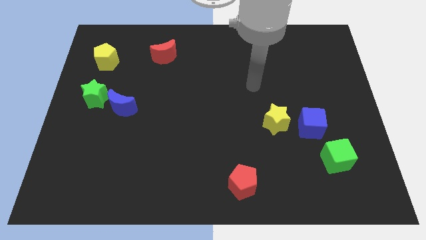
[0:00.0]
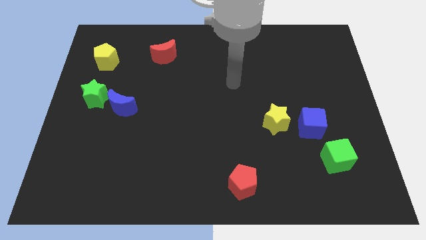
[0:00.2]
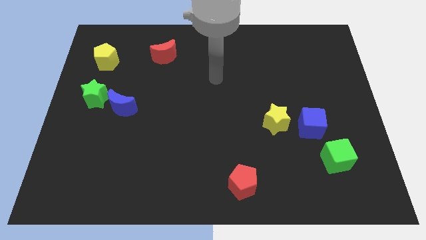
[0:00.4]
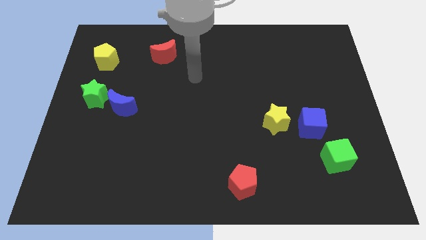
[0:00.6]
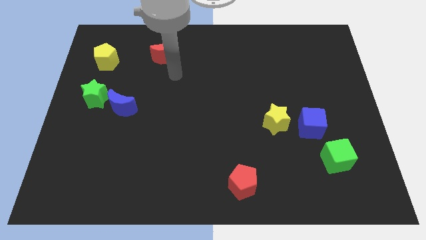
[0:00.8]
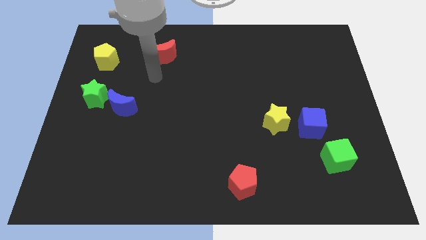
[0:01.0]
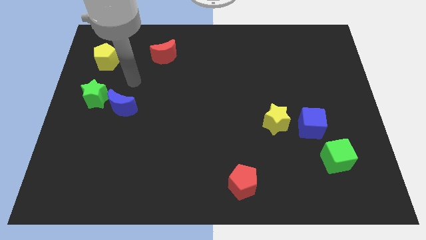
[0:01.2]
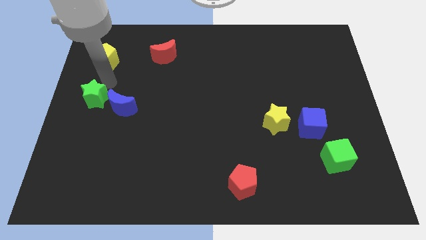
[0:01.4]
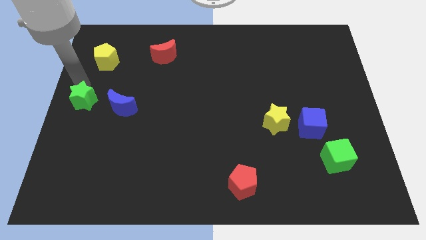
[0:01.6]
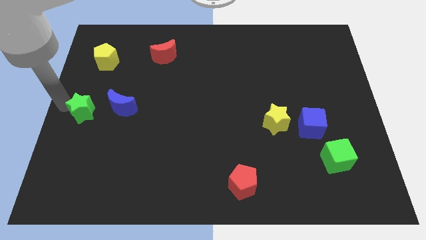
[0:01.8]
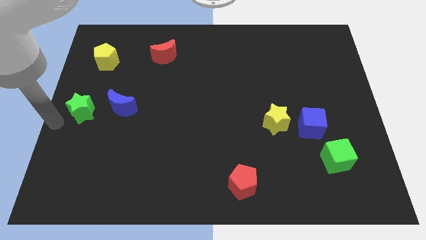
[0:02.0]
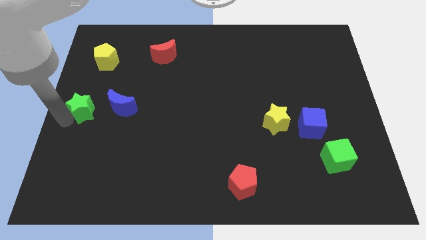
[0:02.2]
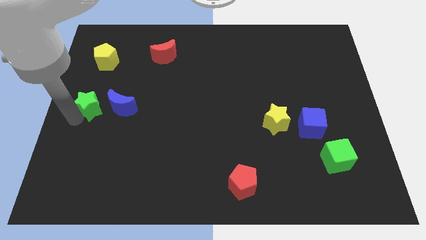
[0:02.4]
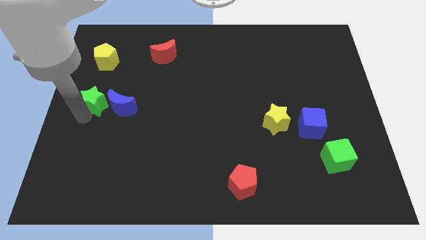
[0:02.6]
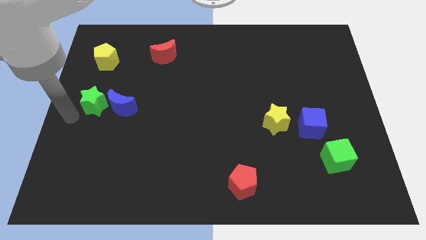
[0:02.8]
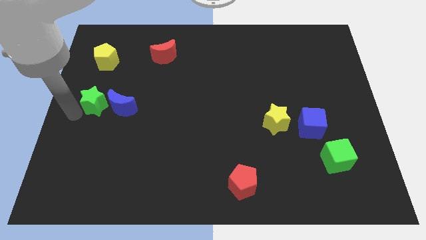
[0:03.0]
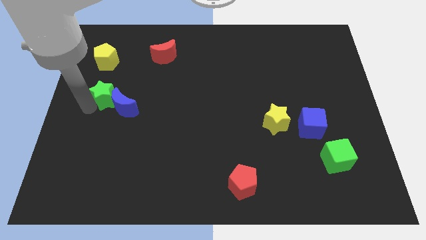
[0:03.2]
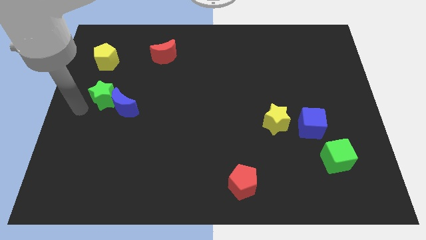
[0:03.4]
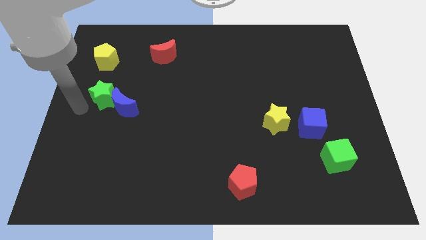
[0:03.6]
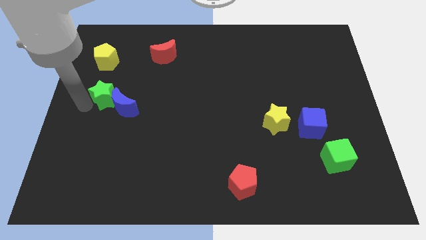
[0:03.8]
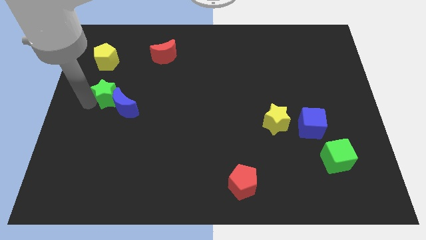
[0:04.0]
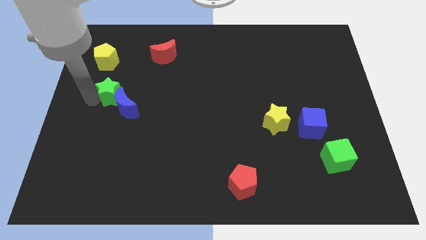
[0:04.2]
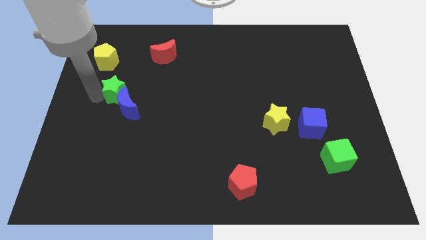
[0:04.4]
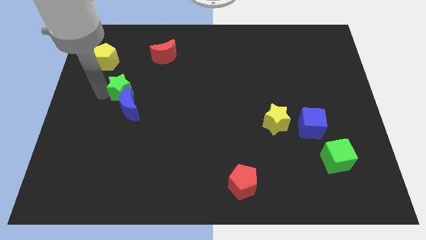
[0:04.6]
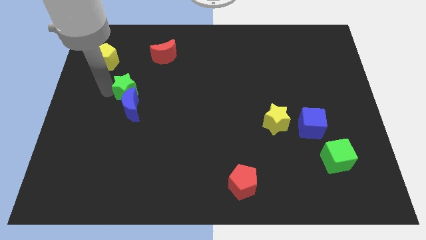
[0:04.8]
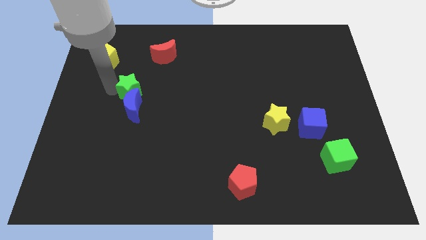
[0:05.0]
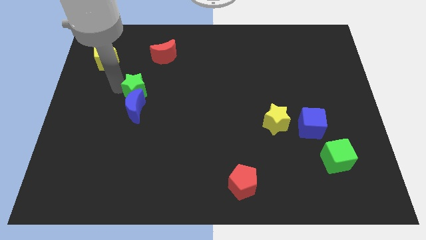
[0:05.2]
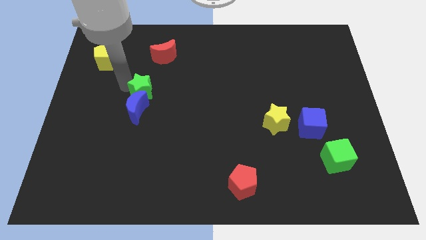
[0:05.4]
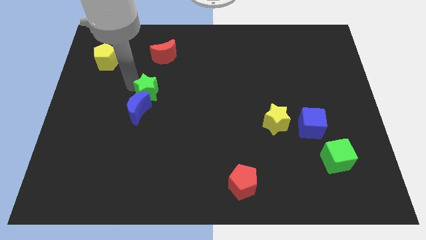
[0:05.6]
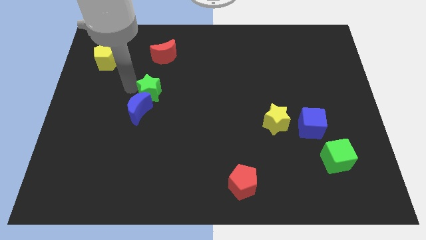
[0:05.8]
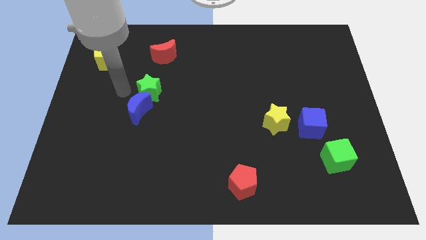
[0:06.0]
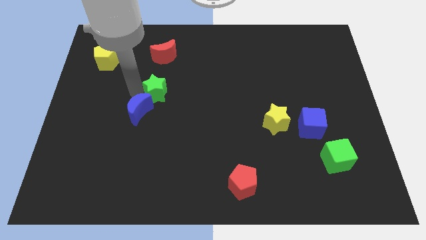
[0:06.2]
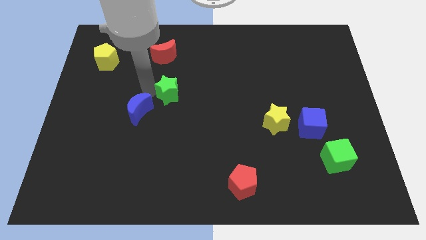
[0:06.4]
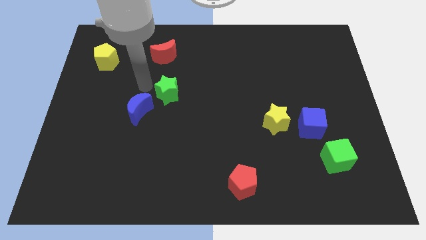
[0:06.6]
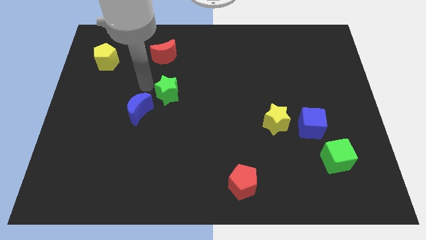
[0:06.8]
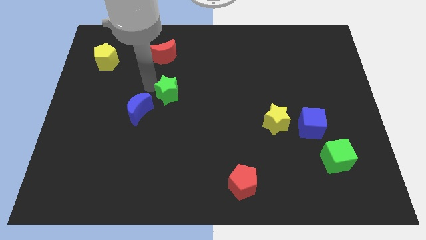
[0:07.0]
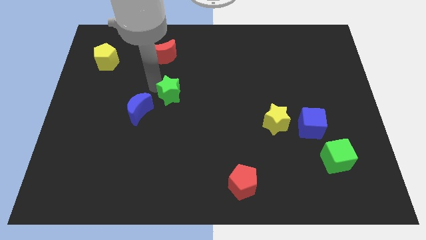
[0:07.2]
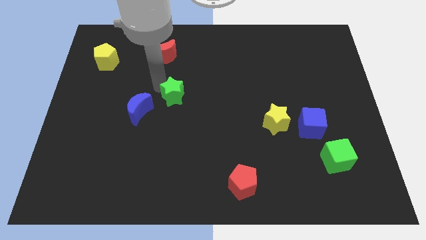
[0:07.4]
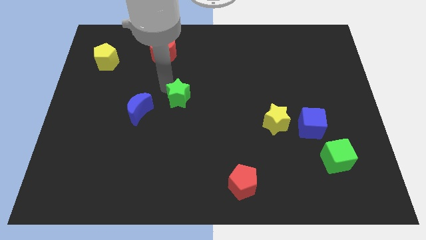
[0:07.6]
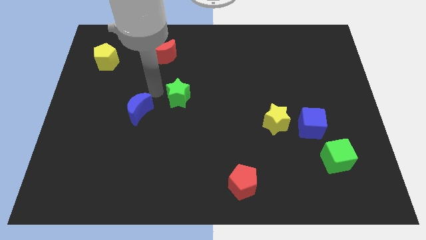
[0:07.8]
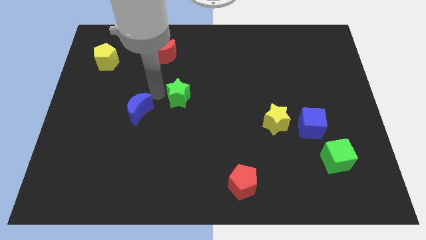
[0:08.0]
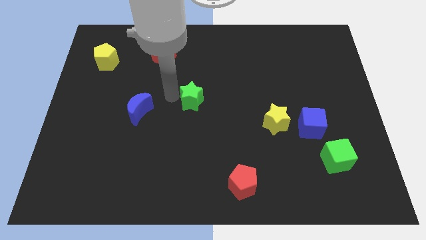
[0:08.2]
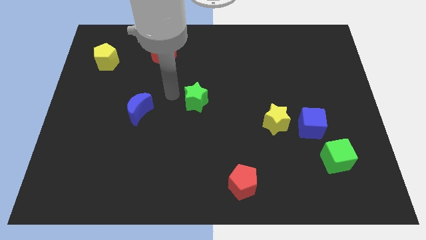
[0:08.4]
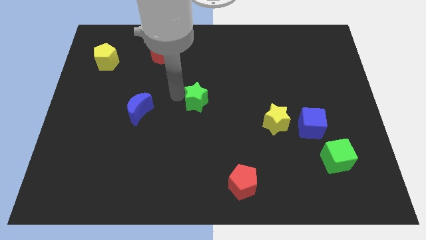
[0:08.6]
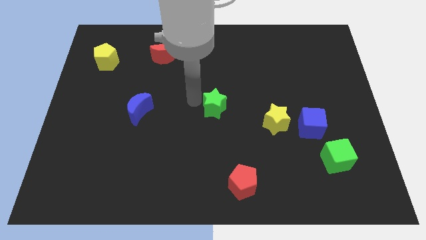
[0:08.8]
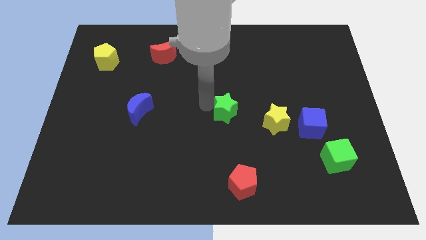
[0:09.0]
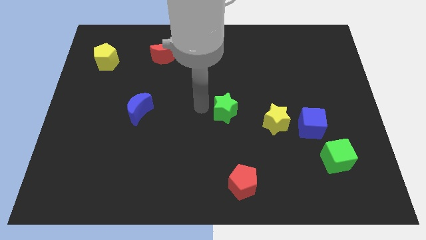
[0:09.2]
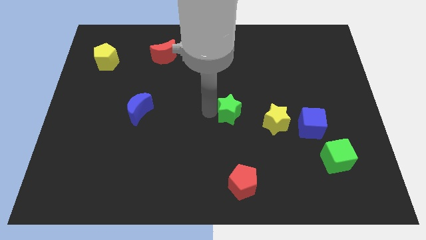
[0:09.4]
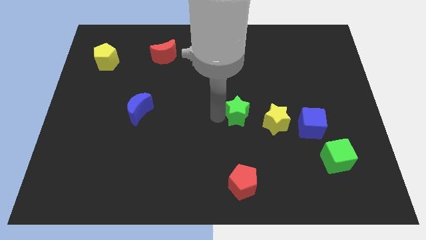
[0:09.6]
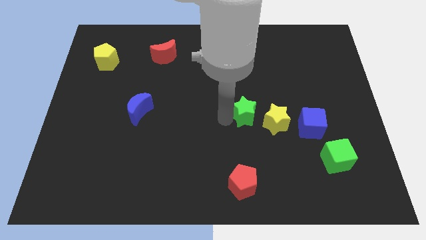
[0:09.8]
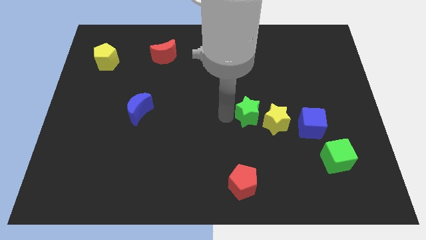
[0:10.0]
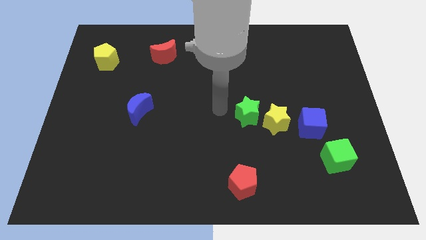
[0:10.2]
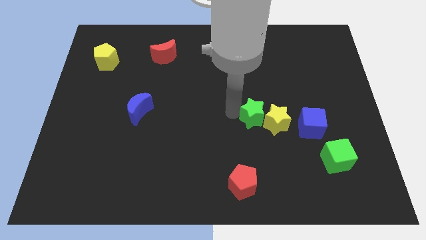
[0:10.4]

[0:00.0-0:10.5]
put the green star close to the yellow star

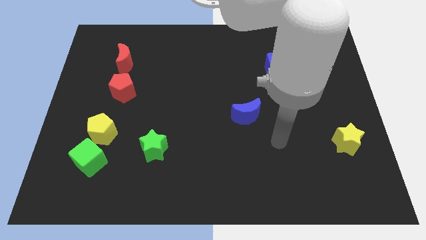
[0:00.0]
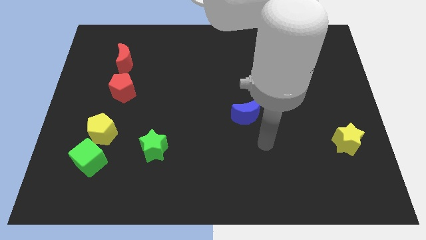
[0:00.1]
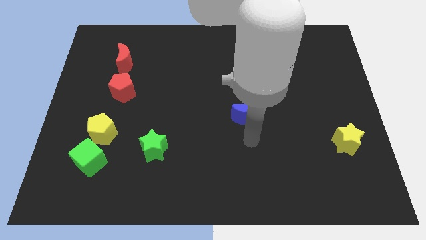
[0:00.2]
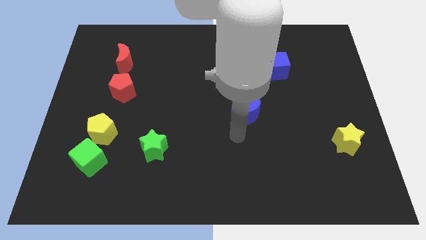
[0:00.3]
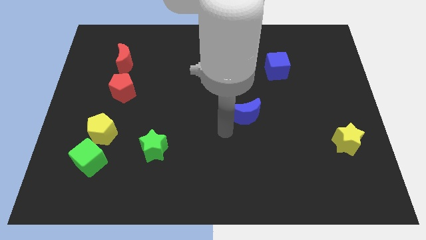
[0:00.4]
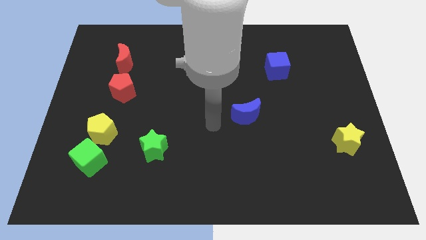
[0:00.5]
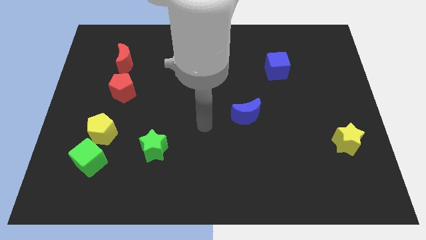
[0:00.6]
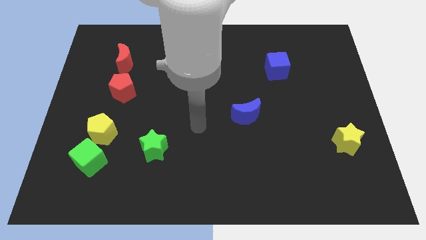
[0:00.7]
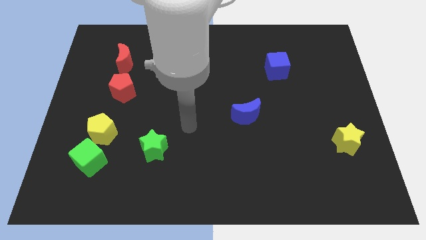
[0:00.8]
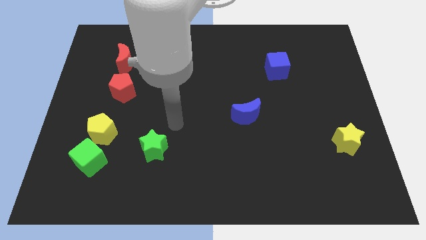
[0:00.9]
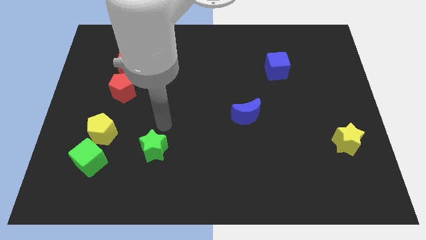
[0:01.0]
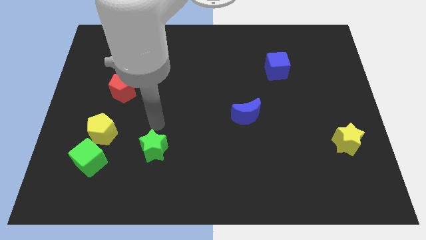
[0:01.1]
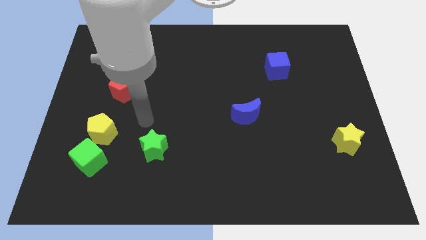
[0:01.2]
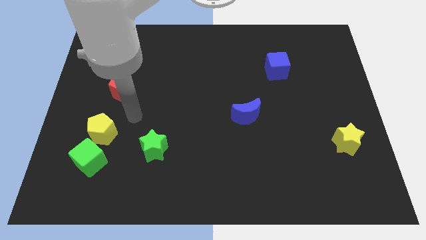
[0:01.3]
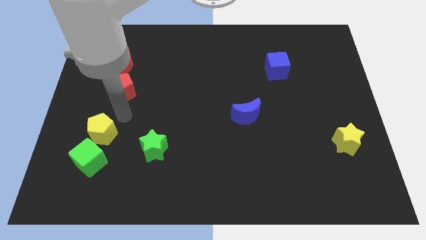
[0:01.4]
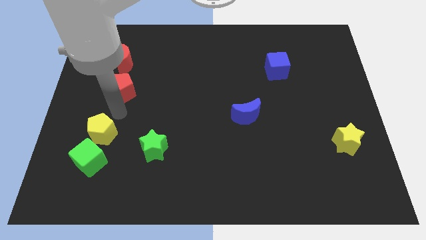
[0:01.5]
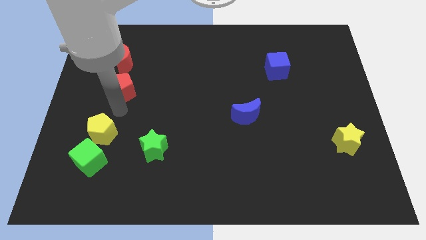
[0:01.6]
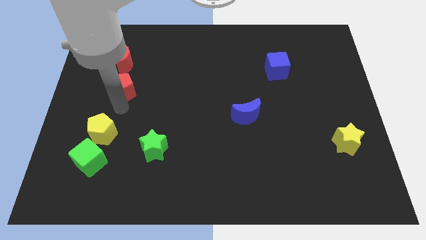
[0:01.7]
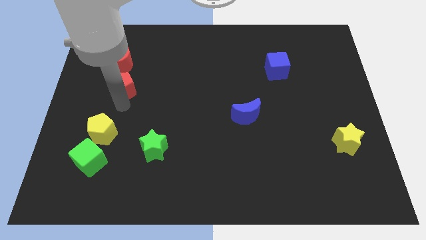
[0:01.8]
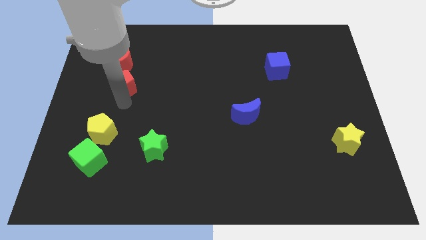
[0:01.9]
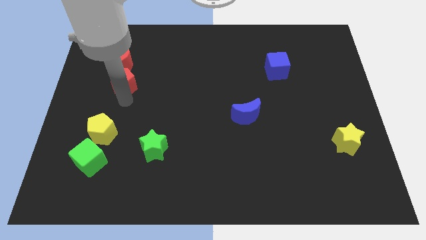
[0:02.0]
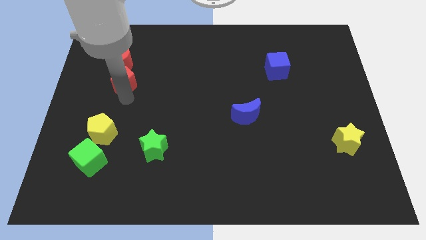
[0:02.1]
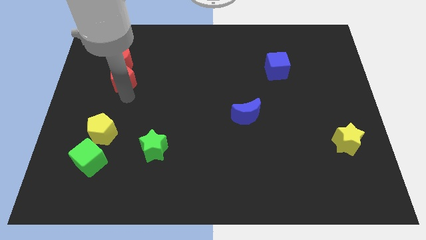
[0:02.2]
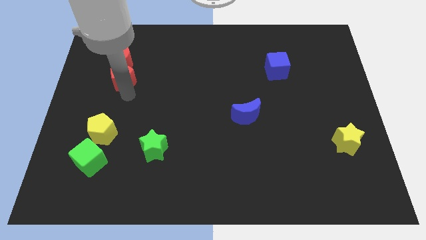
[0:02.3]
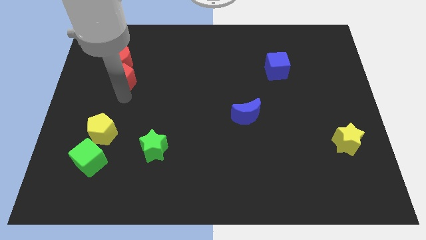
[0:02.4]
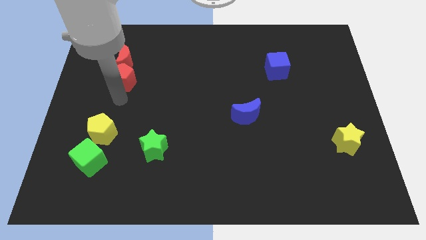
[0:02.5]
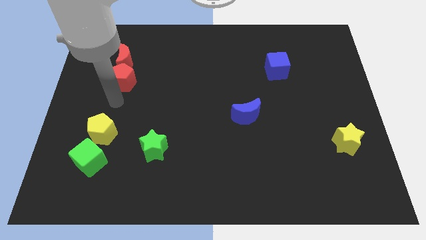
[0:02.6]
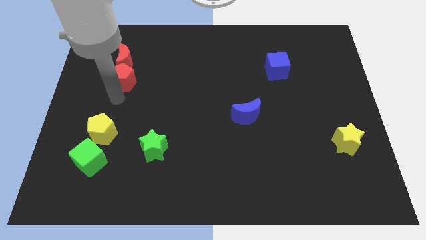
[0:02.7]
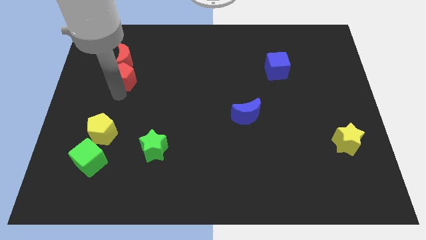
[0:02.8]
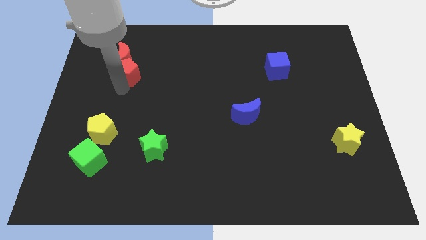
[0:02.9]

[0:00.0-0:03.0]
put the red pentagon to the red moon
